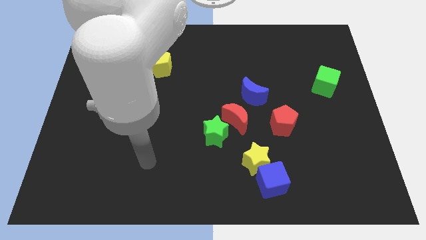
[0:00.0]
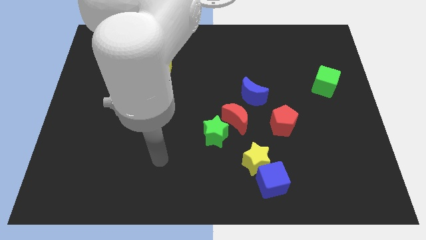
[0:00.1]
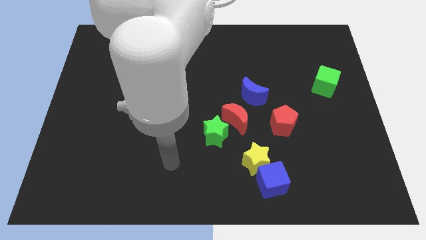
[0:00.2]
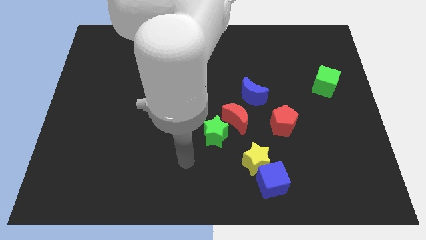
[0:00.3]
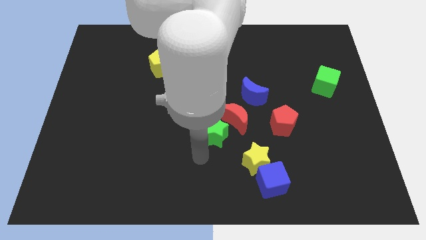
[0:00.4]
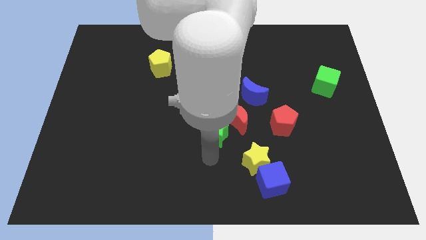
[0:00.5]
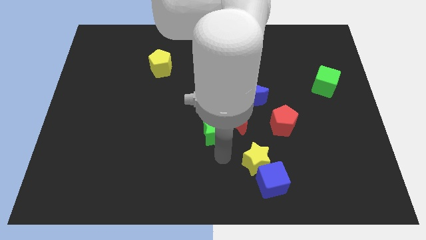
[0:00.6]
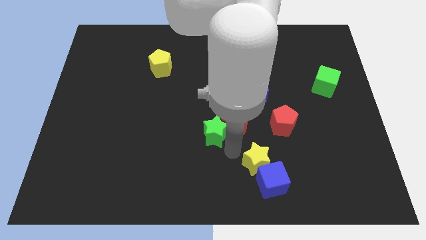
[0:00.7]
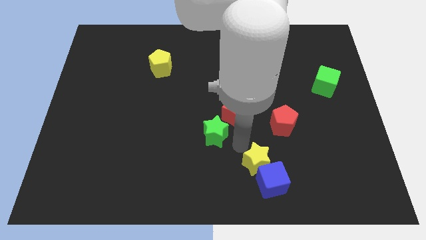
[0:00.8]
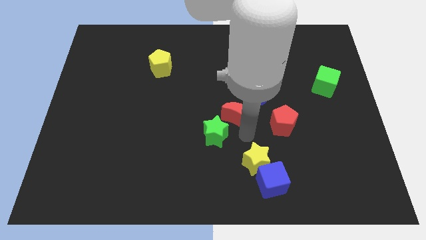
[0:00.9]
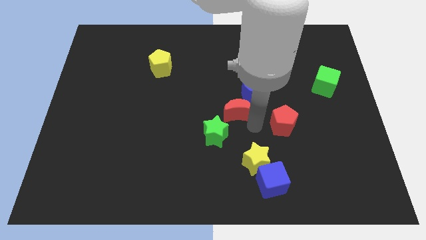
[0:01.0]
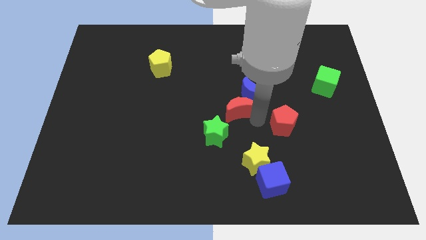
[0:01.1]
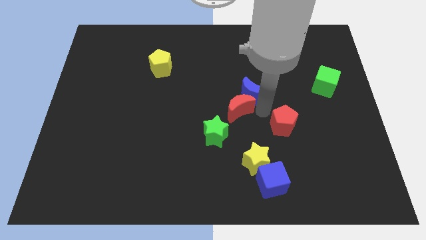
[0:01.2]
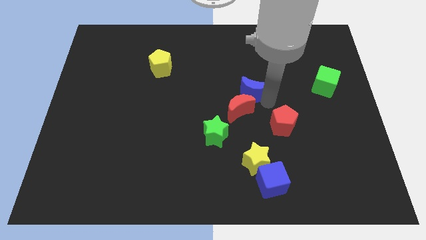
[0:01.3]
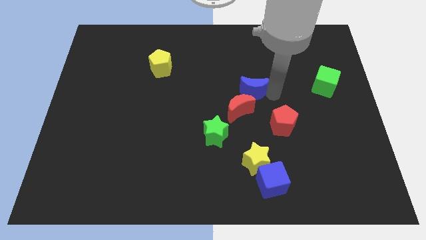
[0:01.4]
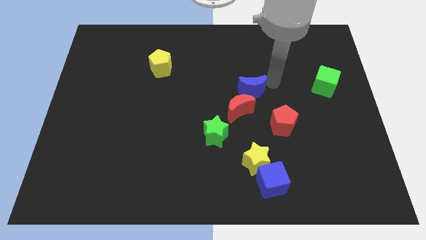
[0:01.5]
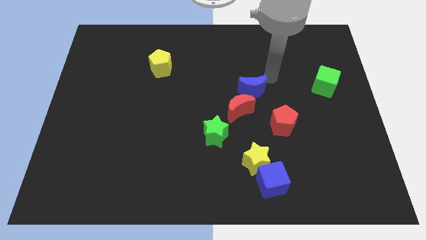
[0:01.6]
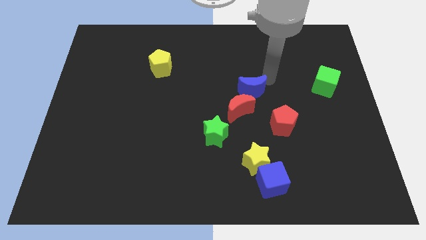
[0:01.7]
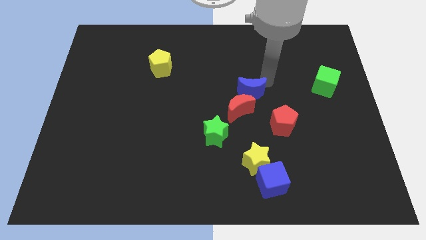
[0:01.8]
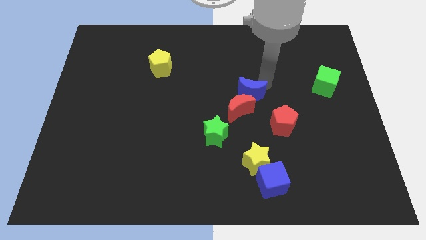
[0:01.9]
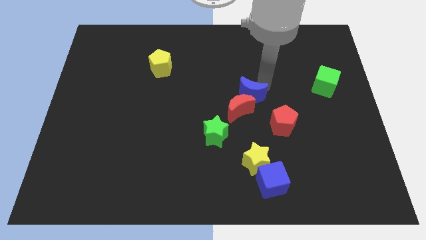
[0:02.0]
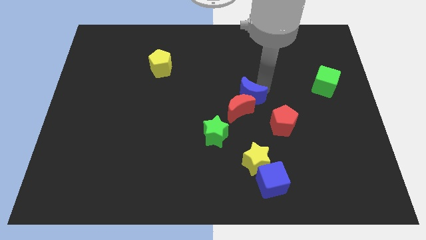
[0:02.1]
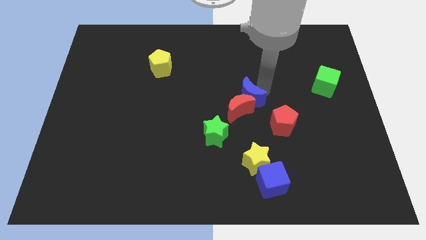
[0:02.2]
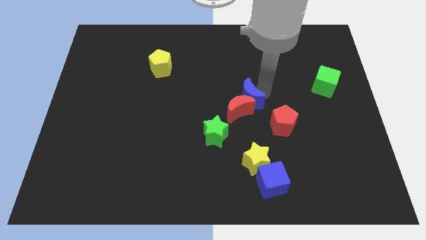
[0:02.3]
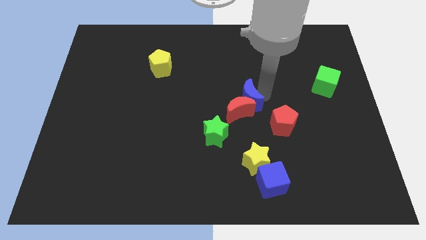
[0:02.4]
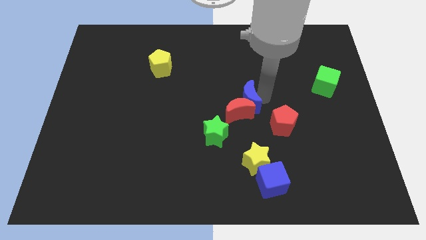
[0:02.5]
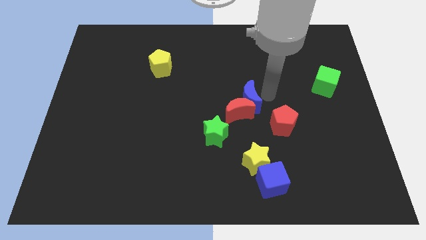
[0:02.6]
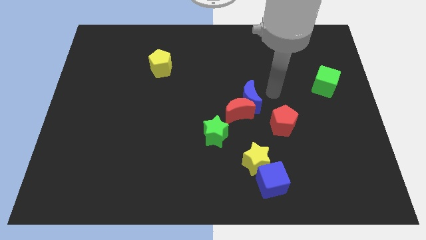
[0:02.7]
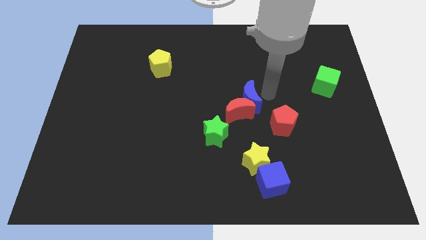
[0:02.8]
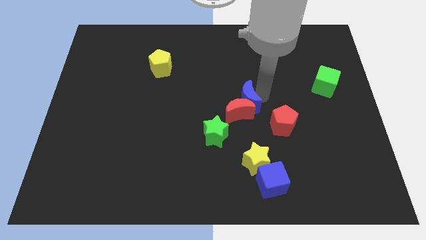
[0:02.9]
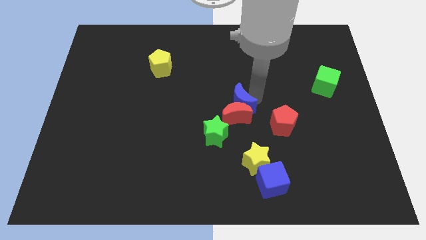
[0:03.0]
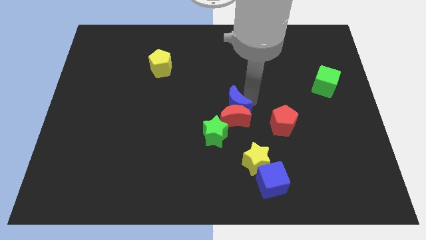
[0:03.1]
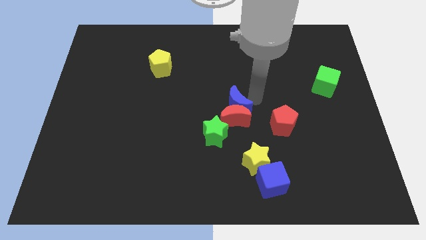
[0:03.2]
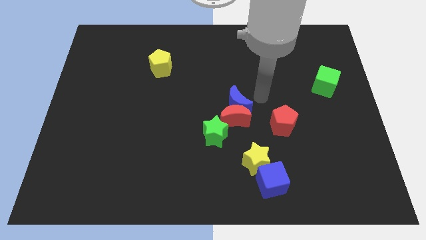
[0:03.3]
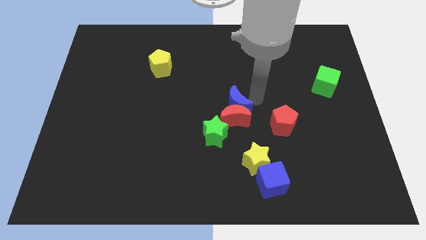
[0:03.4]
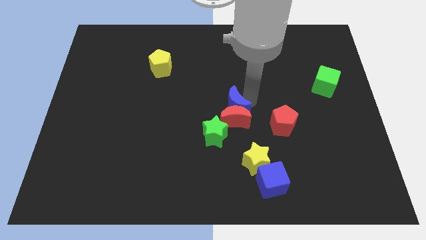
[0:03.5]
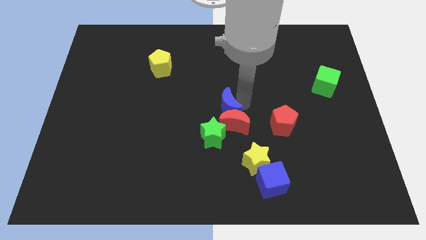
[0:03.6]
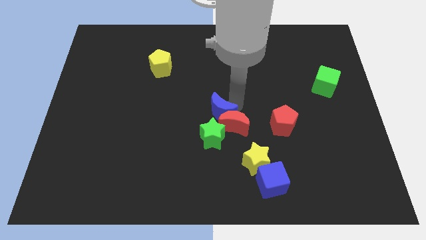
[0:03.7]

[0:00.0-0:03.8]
move the blue moon a bit downwards and left diagonally

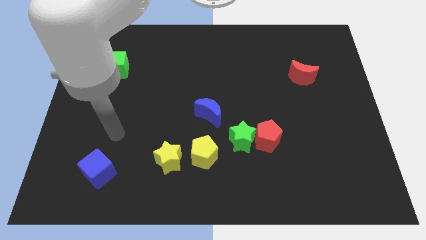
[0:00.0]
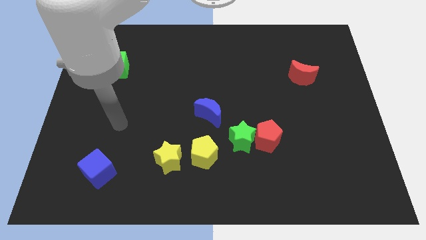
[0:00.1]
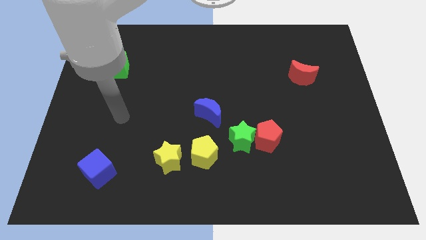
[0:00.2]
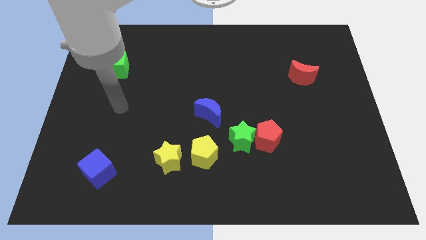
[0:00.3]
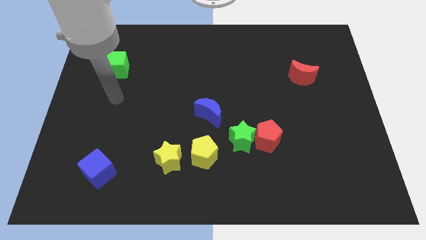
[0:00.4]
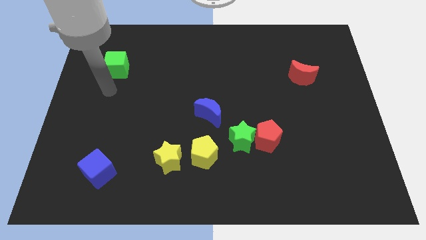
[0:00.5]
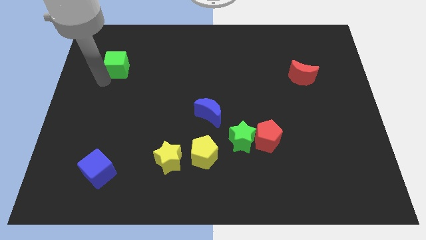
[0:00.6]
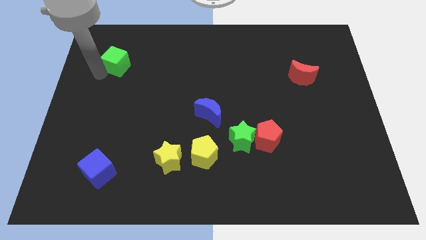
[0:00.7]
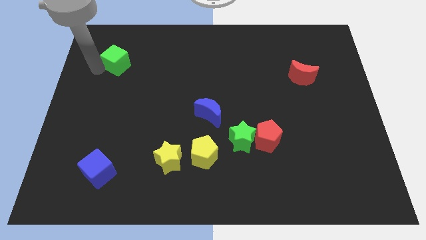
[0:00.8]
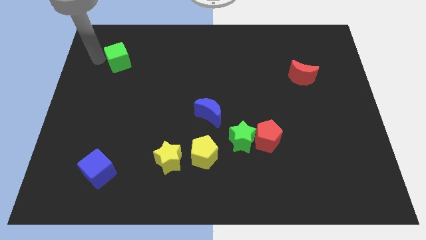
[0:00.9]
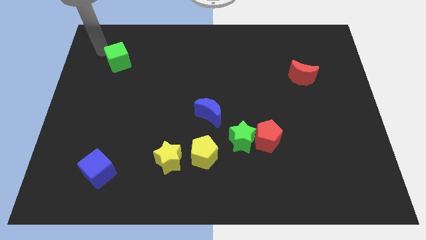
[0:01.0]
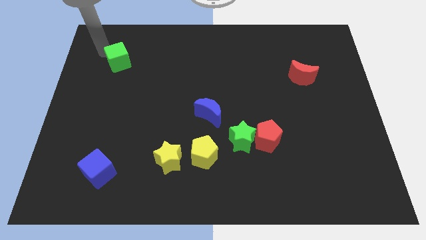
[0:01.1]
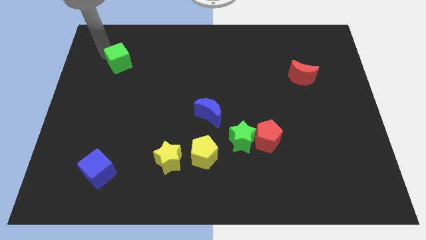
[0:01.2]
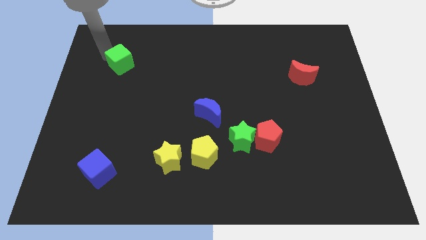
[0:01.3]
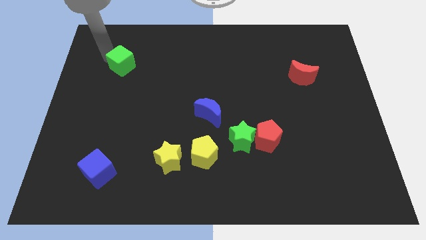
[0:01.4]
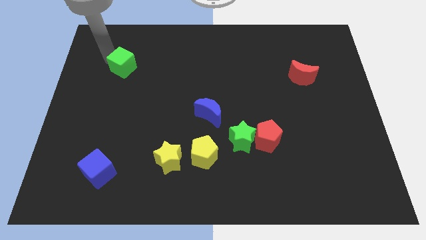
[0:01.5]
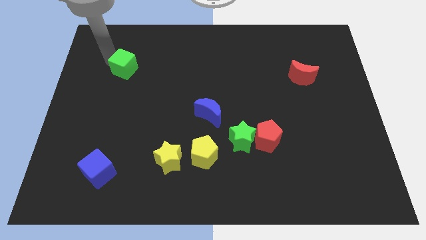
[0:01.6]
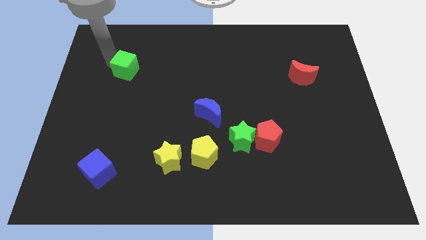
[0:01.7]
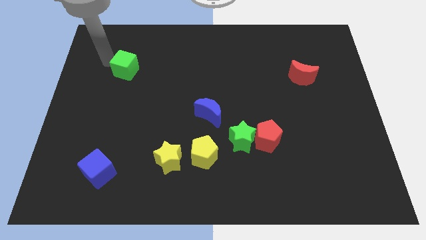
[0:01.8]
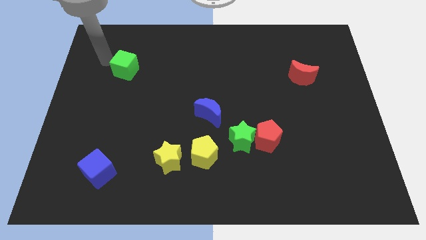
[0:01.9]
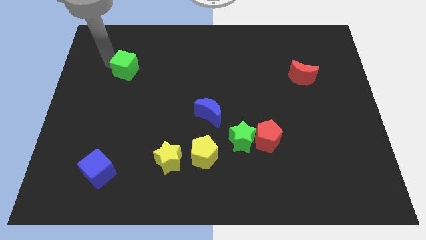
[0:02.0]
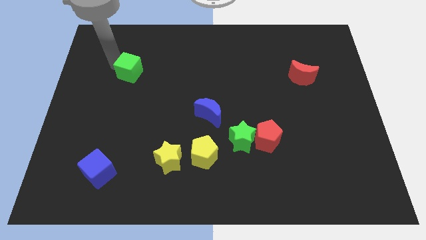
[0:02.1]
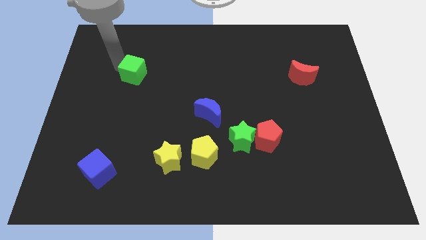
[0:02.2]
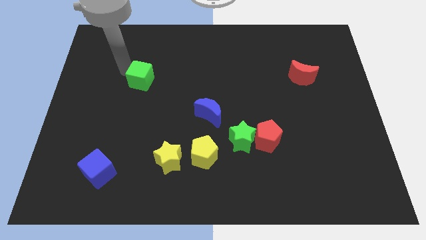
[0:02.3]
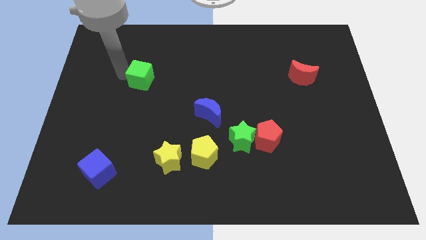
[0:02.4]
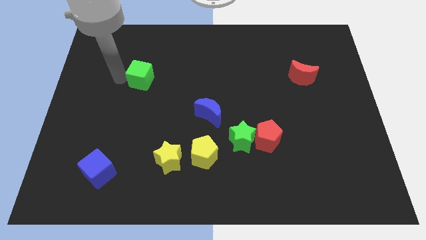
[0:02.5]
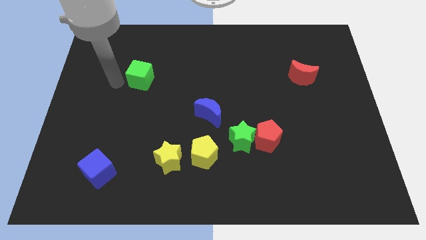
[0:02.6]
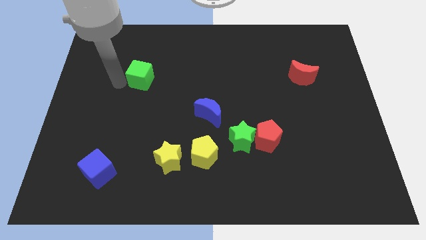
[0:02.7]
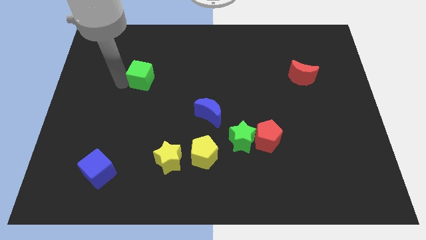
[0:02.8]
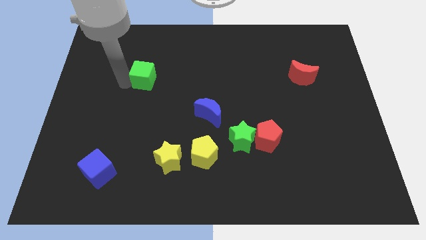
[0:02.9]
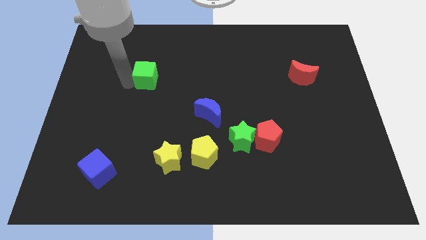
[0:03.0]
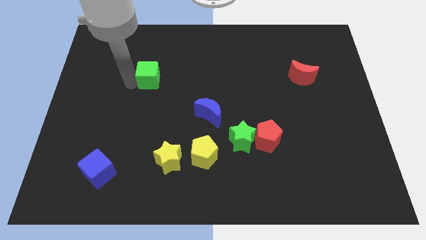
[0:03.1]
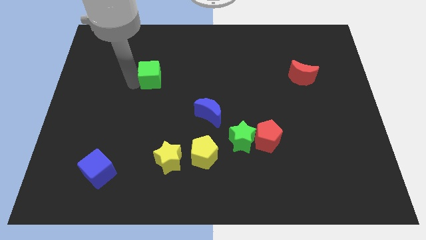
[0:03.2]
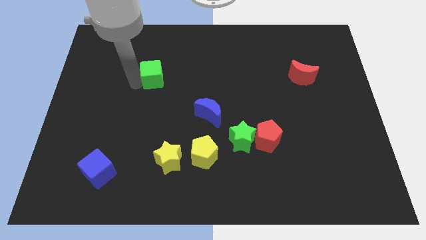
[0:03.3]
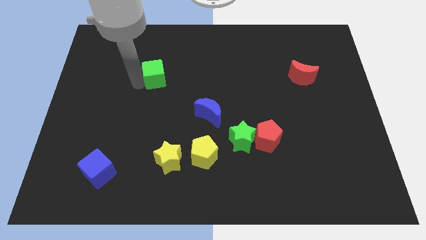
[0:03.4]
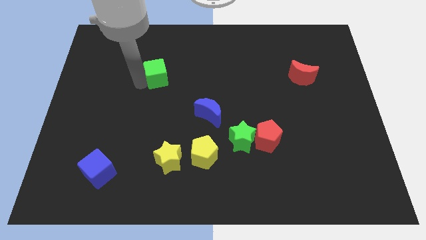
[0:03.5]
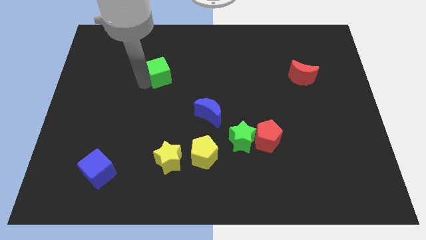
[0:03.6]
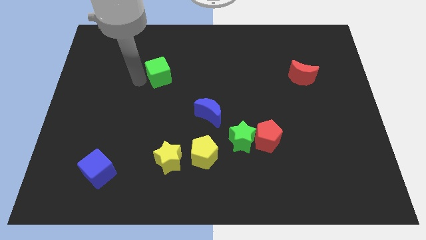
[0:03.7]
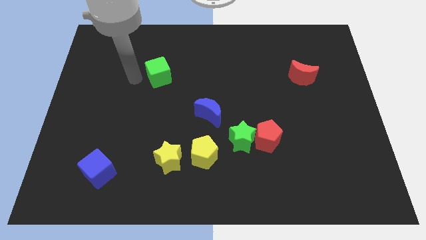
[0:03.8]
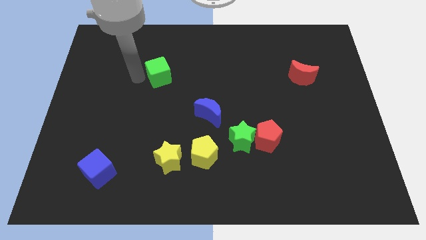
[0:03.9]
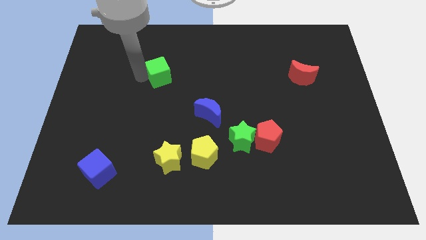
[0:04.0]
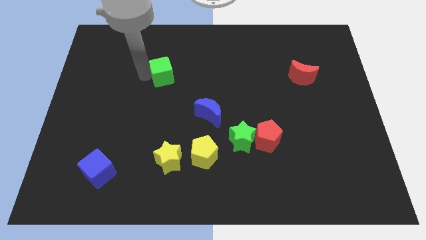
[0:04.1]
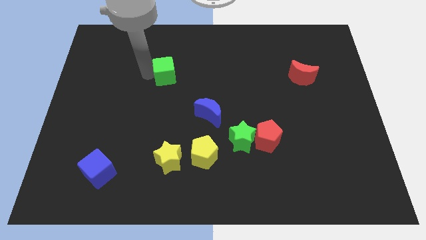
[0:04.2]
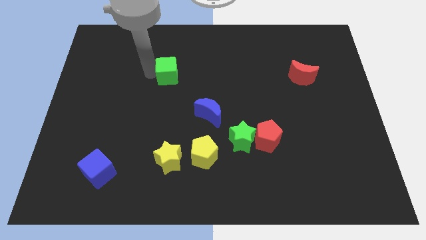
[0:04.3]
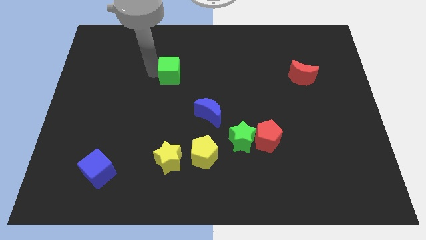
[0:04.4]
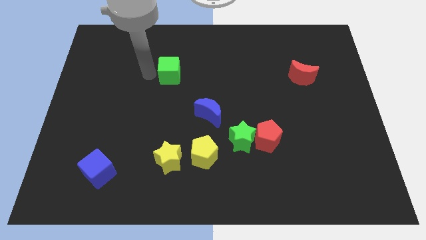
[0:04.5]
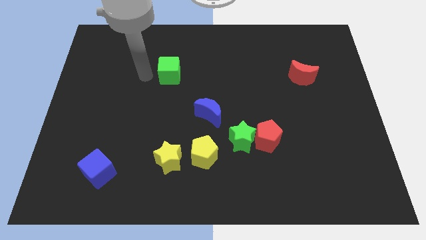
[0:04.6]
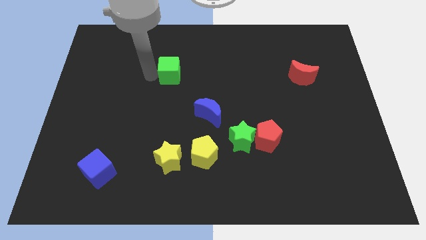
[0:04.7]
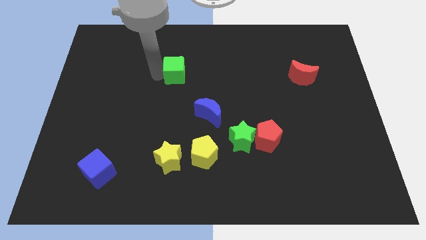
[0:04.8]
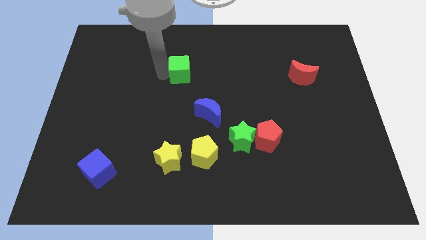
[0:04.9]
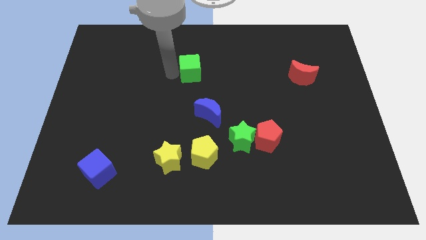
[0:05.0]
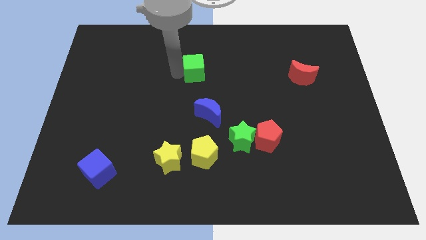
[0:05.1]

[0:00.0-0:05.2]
push the green cube to the right
